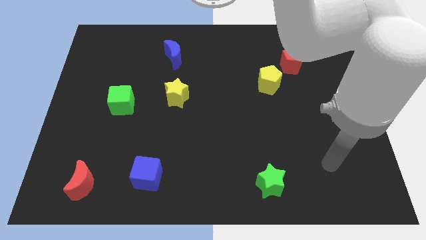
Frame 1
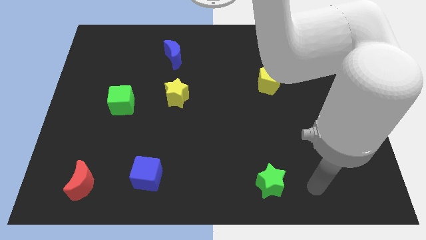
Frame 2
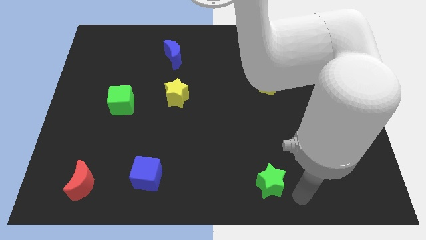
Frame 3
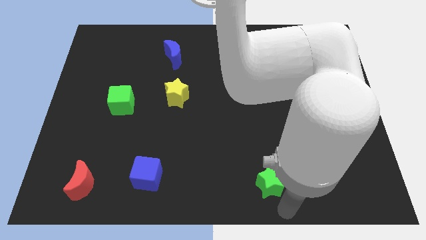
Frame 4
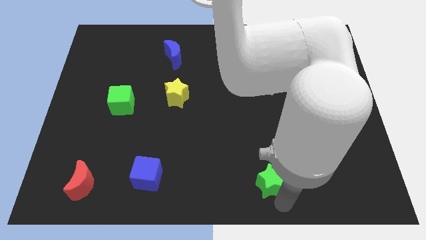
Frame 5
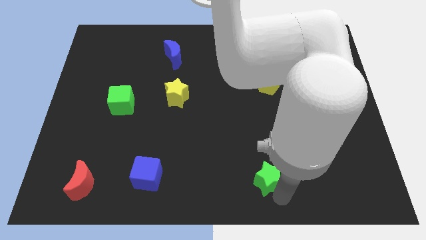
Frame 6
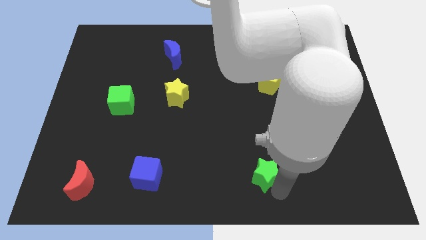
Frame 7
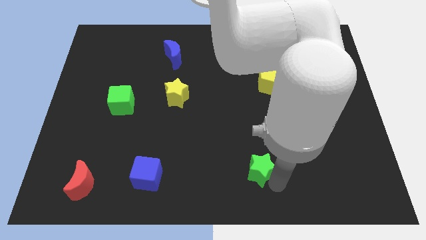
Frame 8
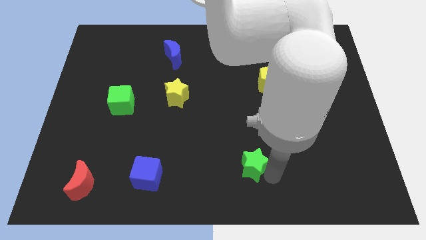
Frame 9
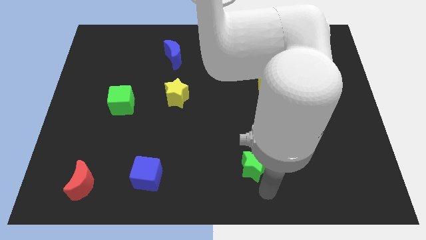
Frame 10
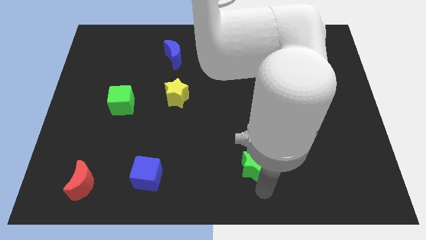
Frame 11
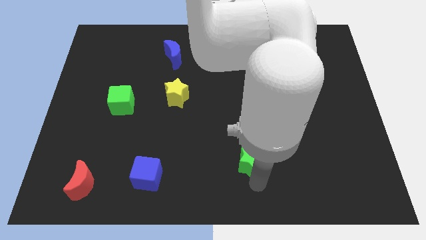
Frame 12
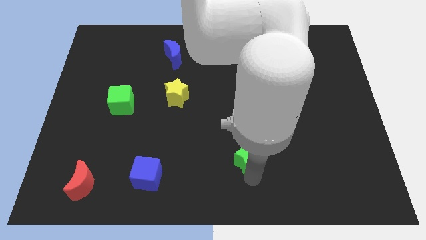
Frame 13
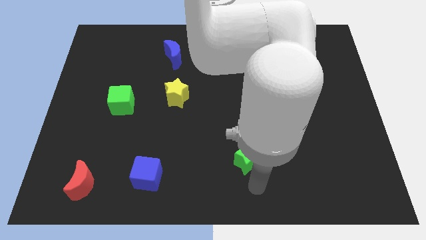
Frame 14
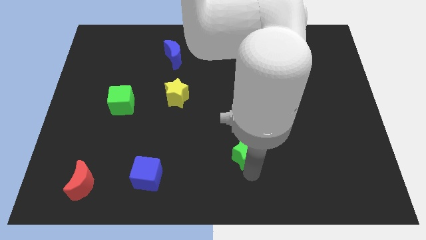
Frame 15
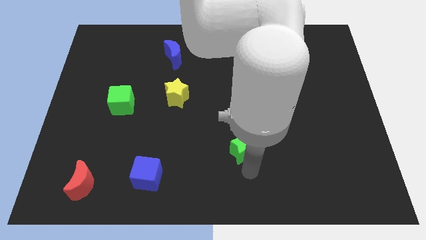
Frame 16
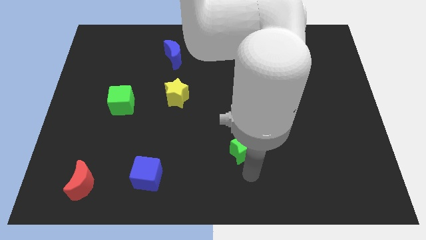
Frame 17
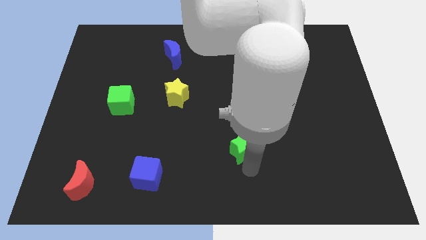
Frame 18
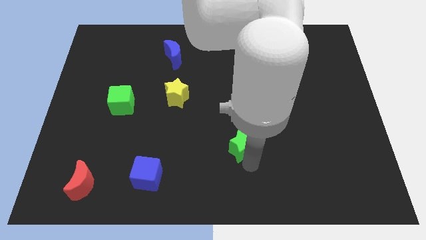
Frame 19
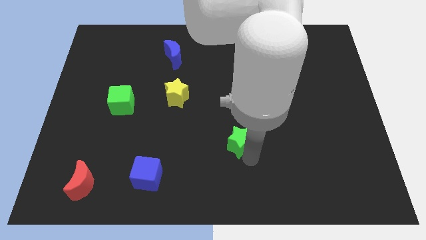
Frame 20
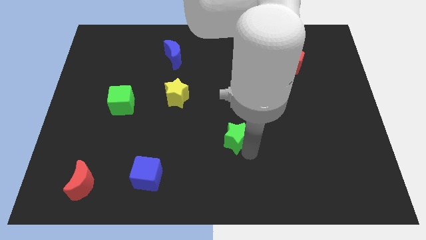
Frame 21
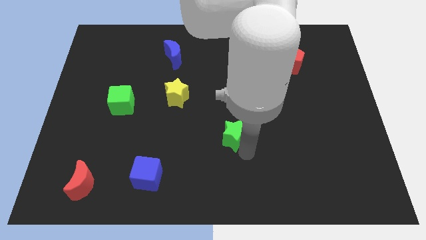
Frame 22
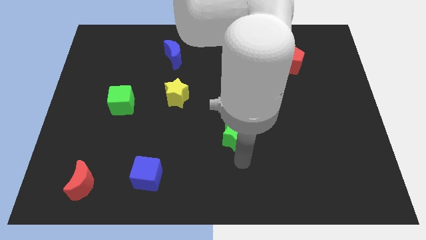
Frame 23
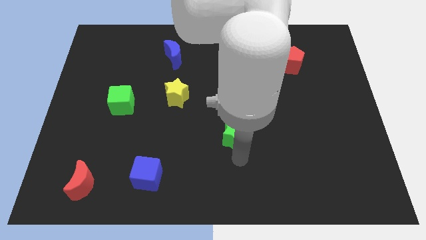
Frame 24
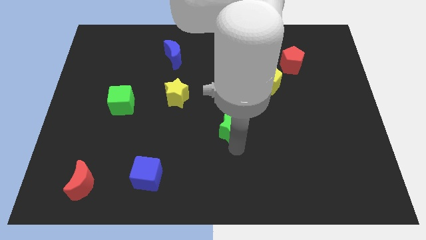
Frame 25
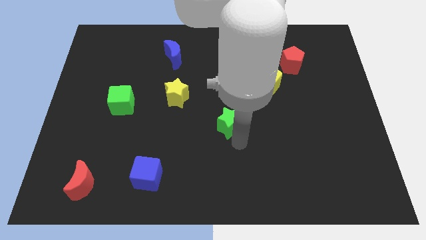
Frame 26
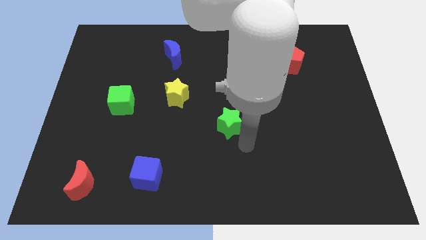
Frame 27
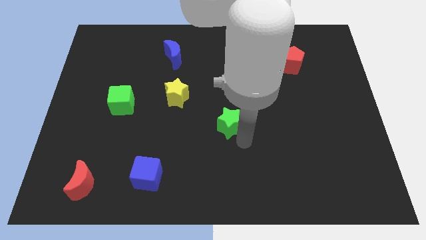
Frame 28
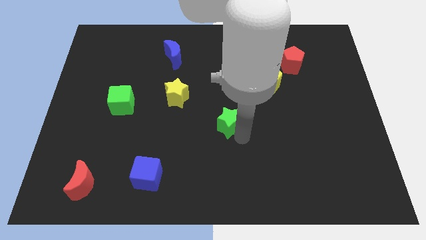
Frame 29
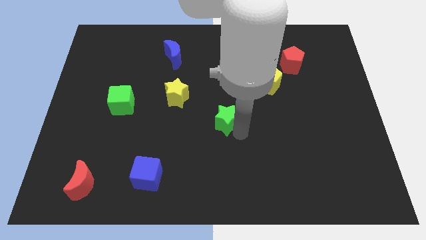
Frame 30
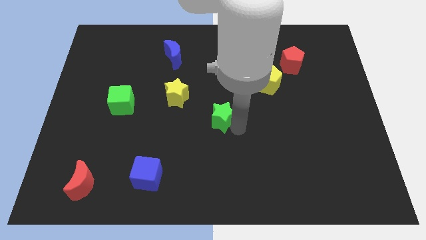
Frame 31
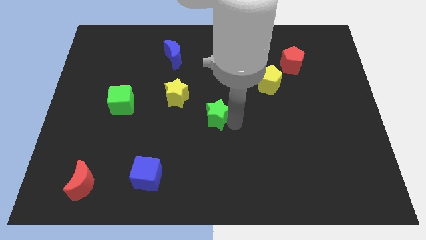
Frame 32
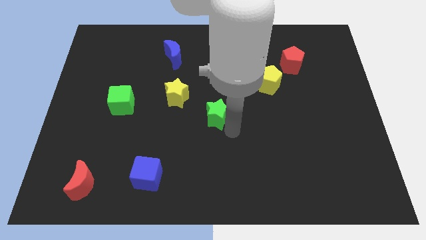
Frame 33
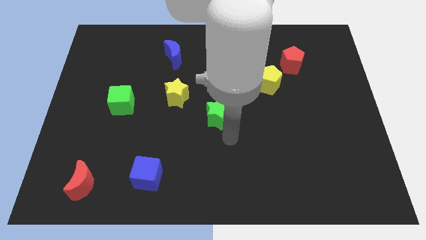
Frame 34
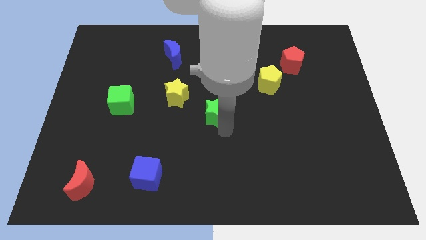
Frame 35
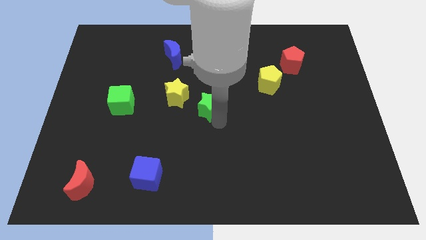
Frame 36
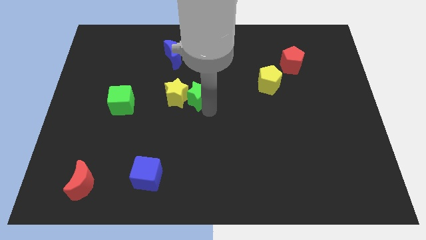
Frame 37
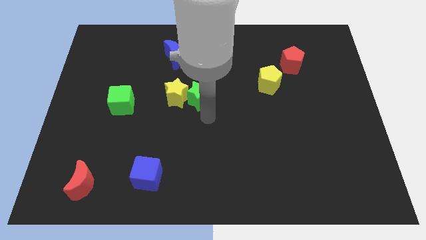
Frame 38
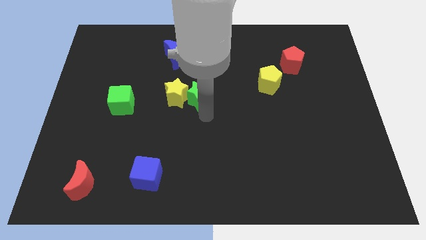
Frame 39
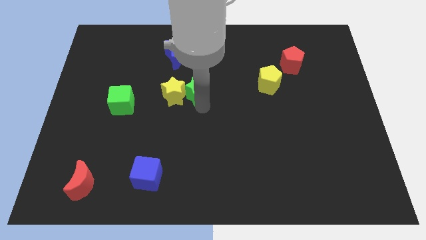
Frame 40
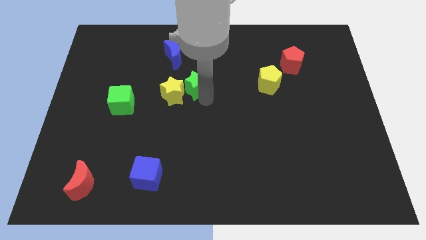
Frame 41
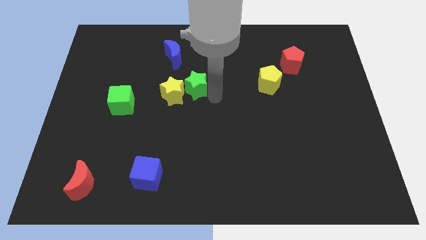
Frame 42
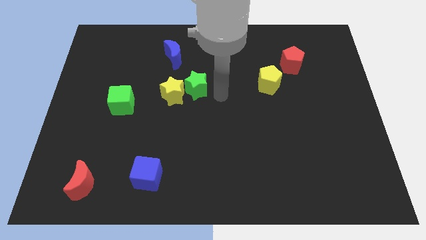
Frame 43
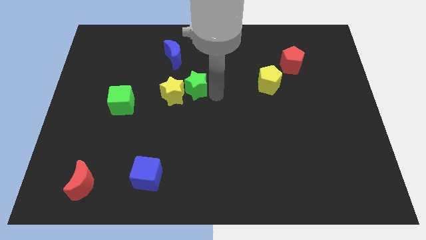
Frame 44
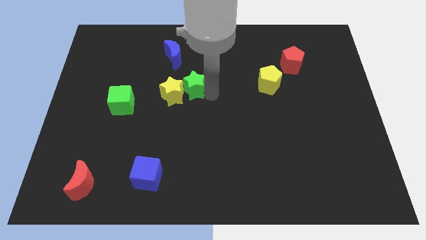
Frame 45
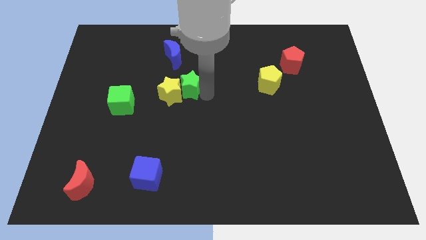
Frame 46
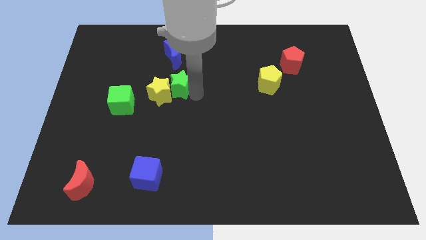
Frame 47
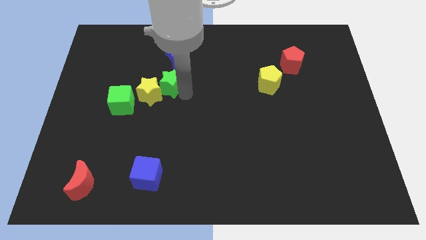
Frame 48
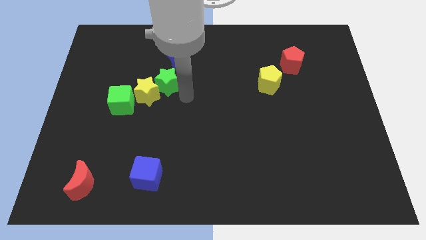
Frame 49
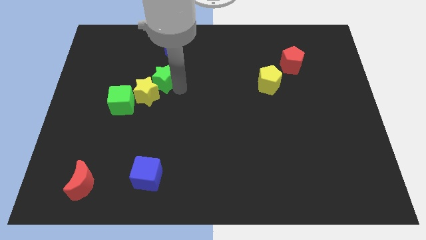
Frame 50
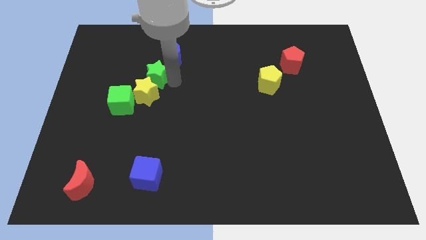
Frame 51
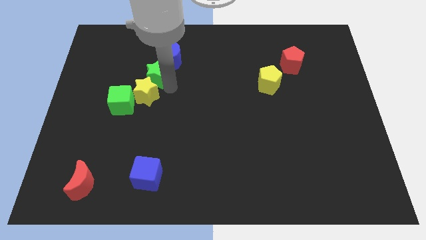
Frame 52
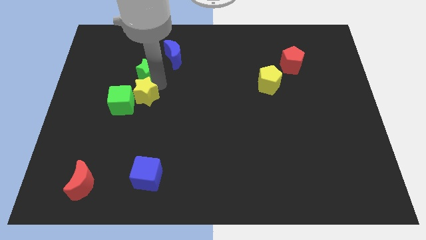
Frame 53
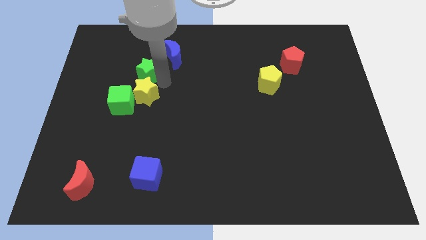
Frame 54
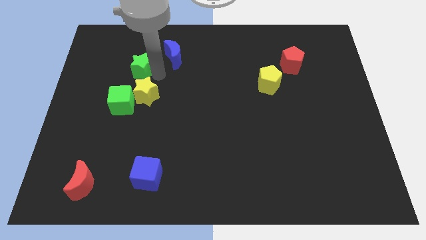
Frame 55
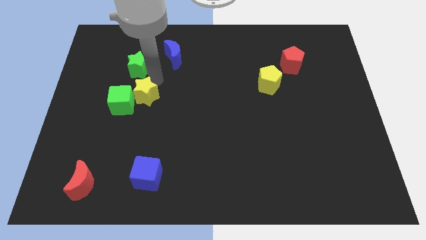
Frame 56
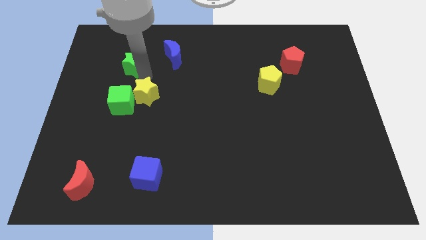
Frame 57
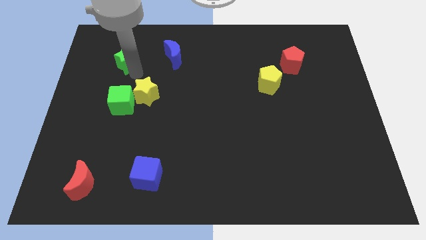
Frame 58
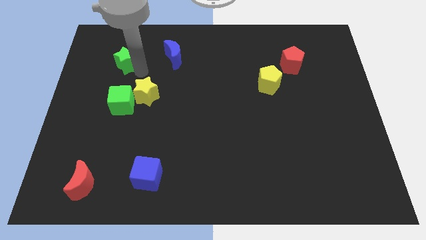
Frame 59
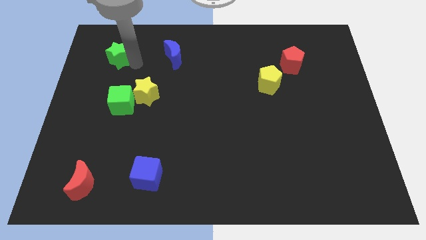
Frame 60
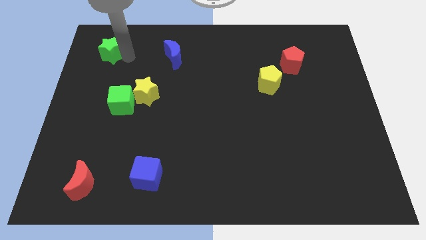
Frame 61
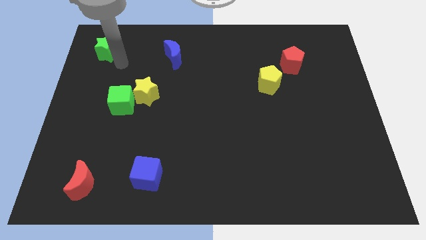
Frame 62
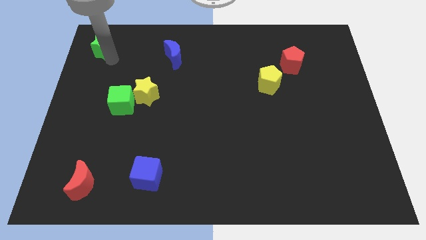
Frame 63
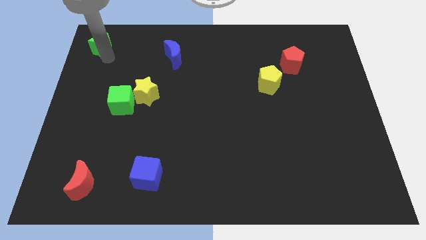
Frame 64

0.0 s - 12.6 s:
put the green star to the top left

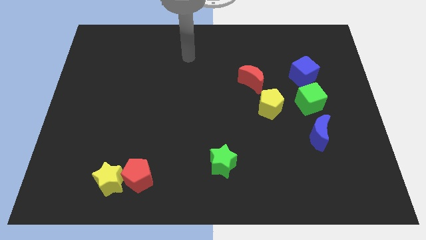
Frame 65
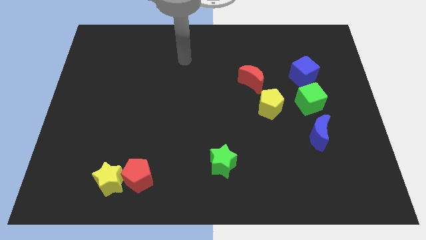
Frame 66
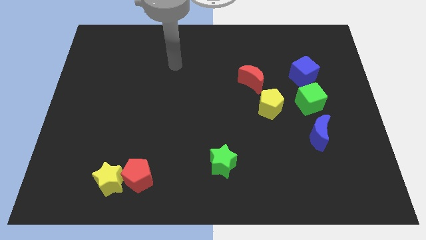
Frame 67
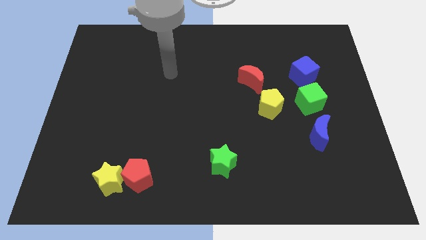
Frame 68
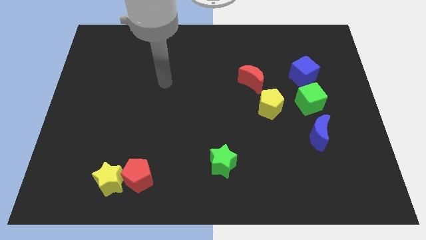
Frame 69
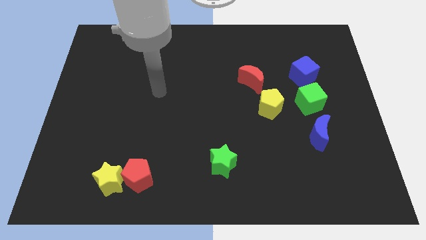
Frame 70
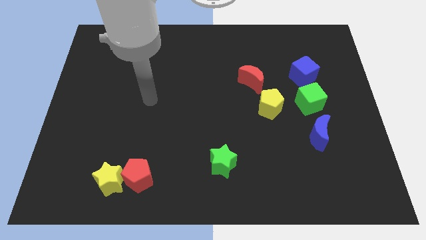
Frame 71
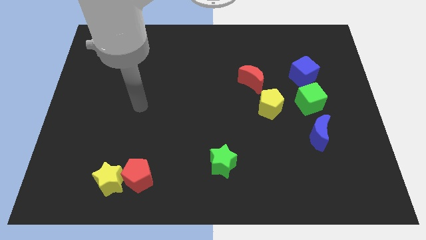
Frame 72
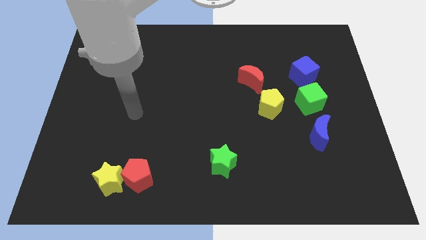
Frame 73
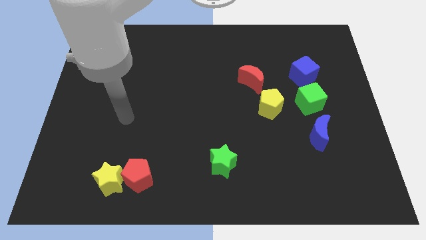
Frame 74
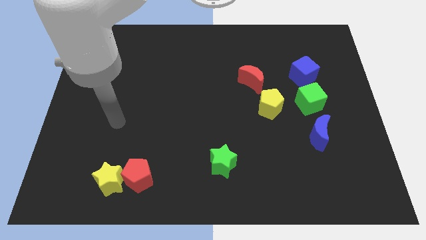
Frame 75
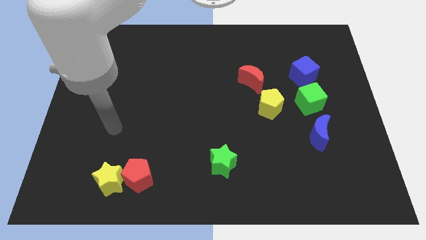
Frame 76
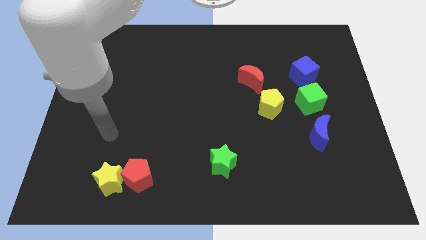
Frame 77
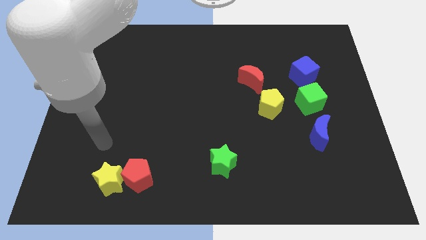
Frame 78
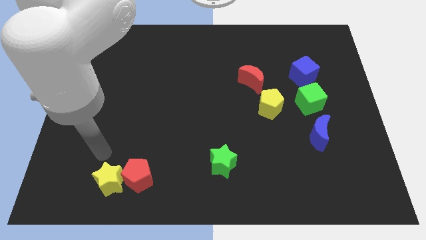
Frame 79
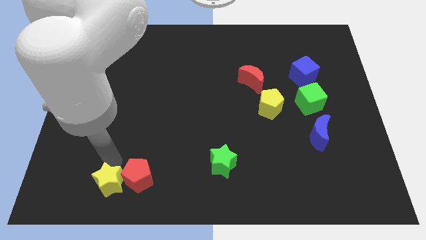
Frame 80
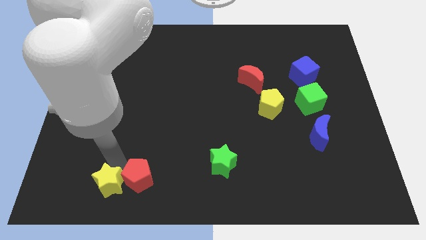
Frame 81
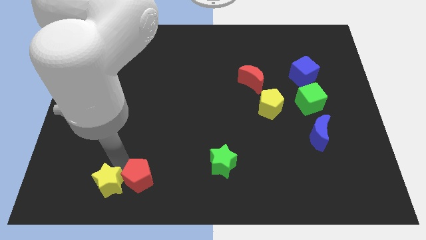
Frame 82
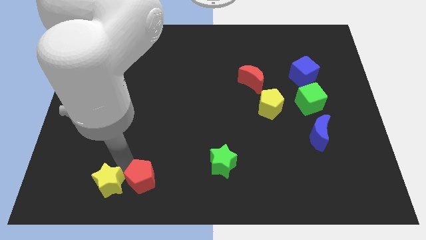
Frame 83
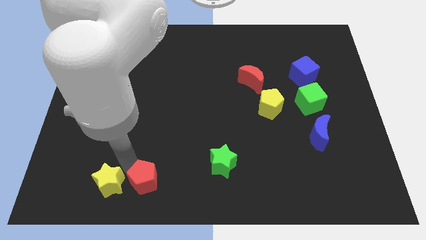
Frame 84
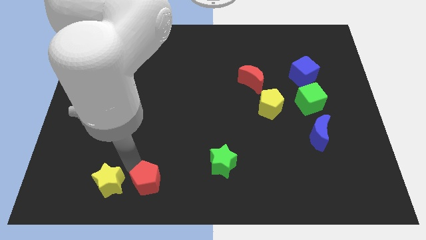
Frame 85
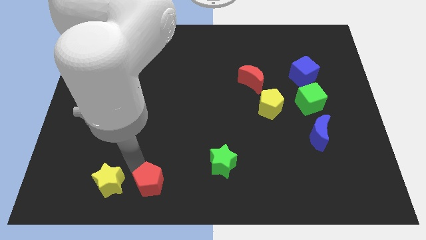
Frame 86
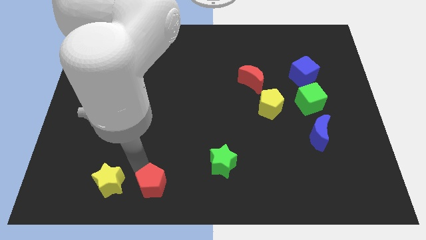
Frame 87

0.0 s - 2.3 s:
push the red pentagon to the bottom side
